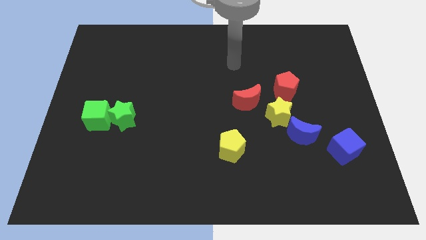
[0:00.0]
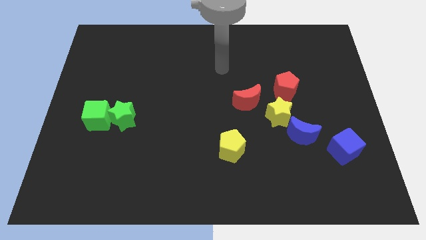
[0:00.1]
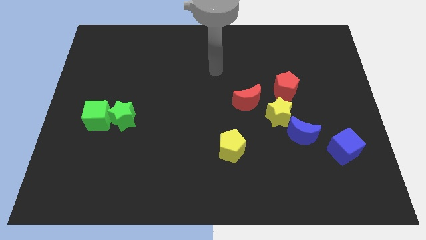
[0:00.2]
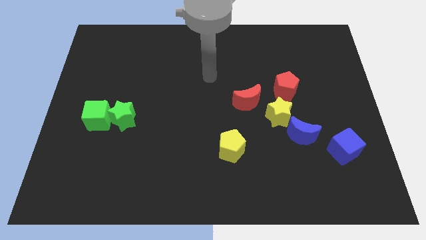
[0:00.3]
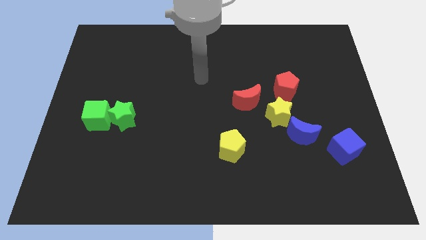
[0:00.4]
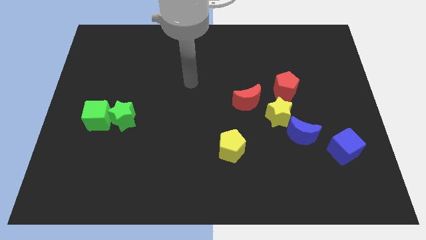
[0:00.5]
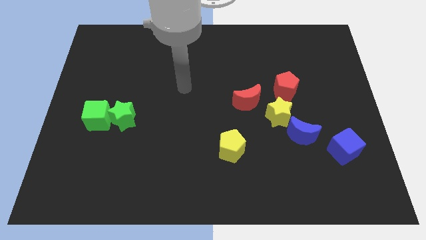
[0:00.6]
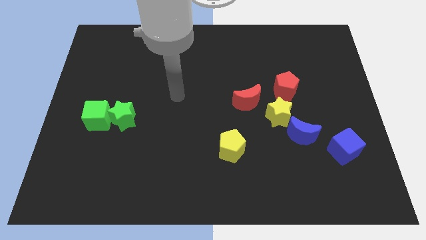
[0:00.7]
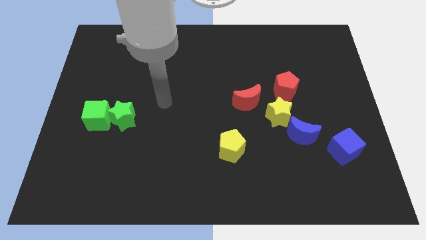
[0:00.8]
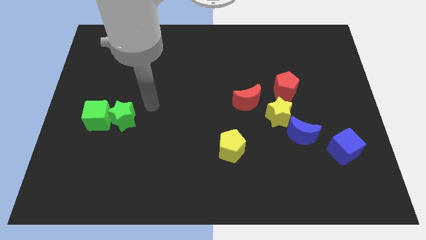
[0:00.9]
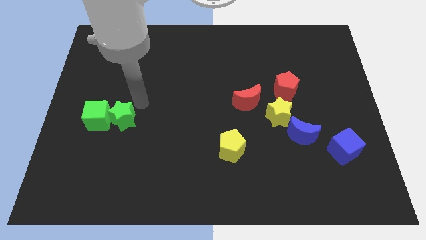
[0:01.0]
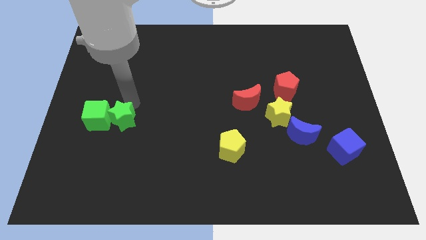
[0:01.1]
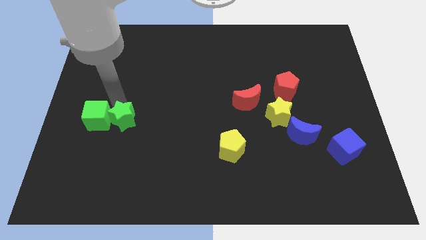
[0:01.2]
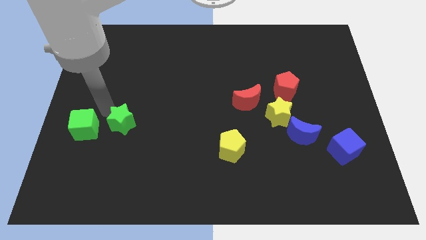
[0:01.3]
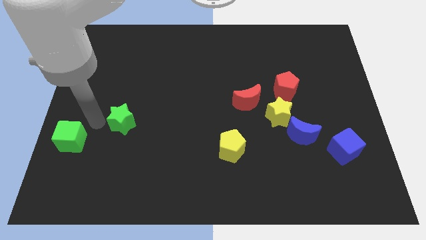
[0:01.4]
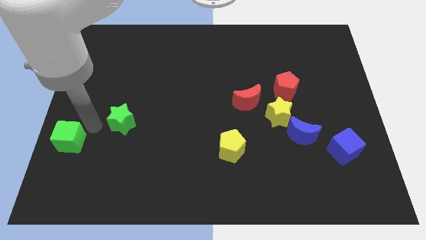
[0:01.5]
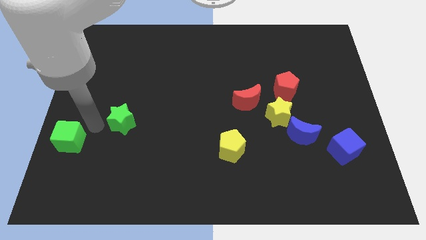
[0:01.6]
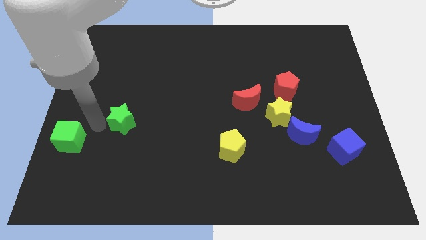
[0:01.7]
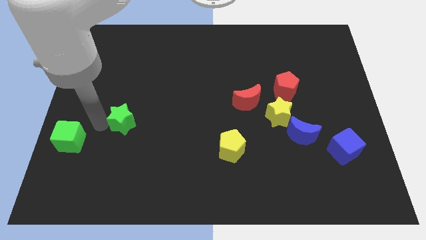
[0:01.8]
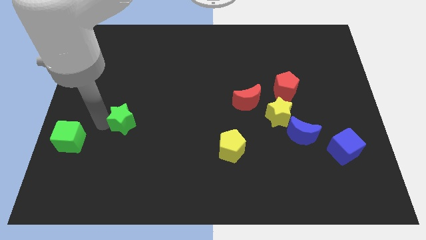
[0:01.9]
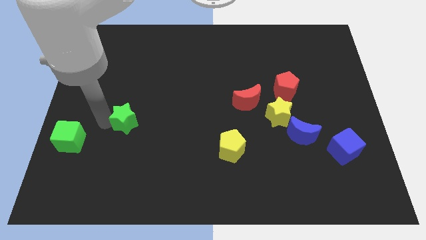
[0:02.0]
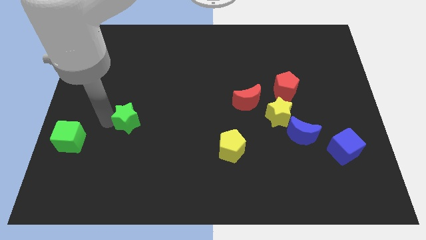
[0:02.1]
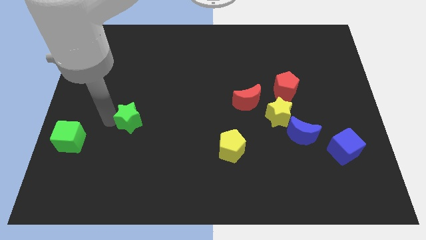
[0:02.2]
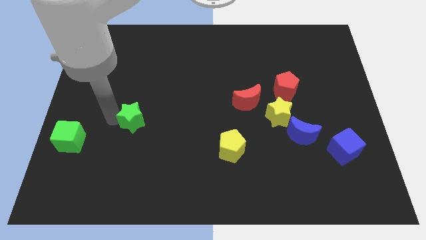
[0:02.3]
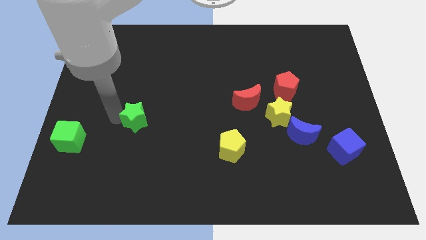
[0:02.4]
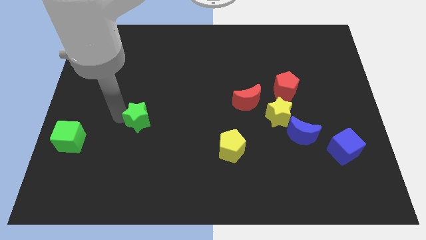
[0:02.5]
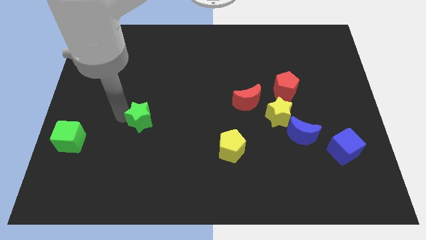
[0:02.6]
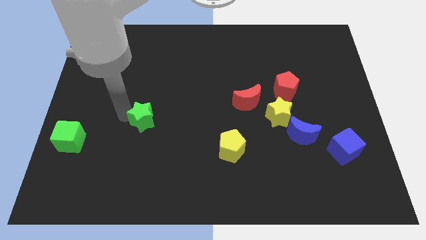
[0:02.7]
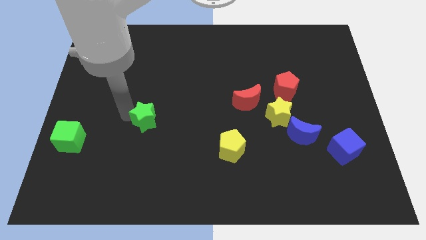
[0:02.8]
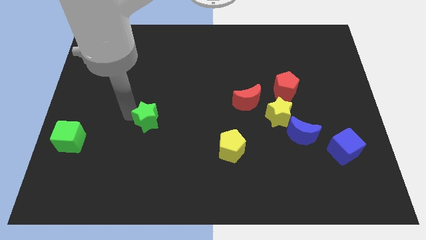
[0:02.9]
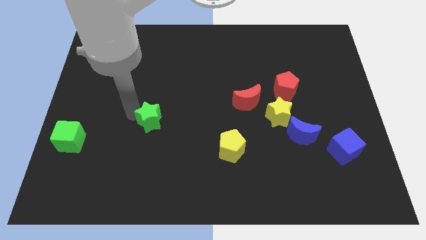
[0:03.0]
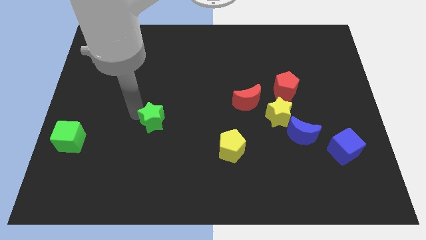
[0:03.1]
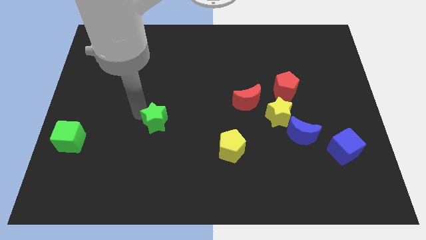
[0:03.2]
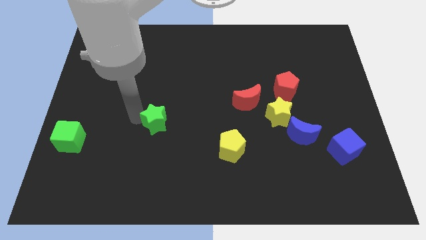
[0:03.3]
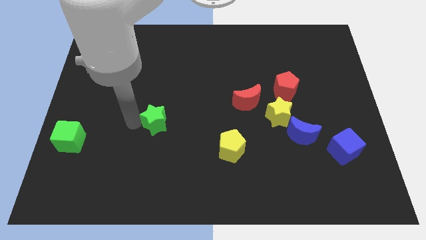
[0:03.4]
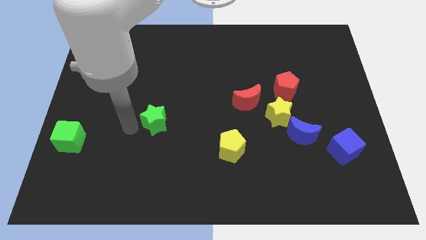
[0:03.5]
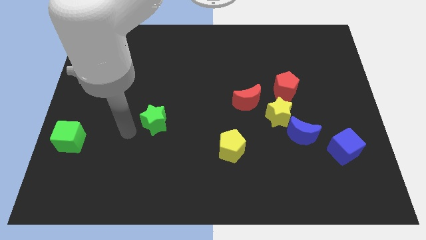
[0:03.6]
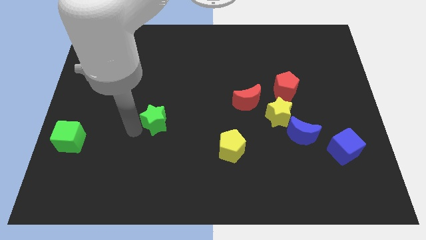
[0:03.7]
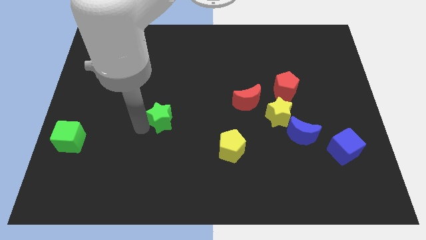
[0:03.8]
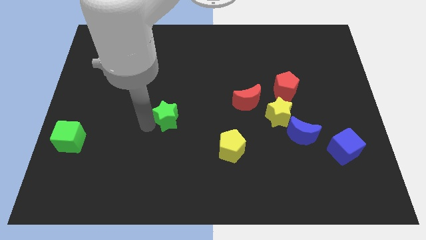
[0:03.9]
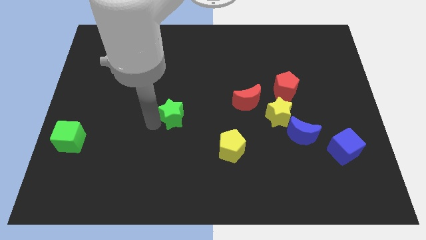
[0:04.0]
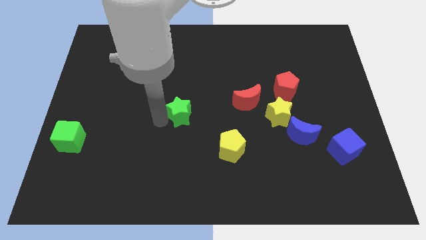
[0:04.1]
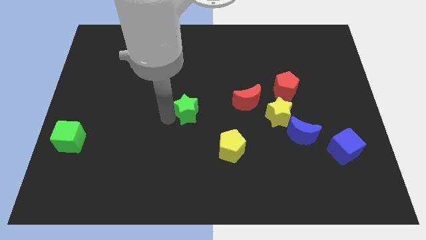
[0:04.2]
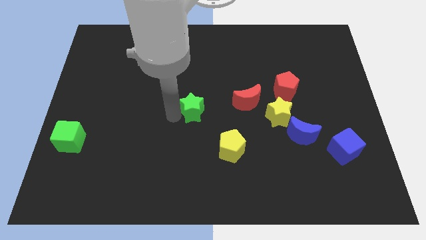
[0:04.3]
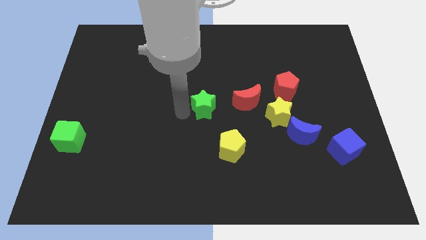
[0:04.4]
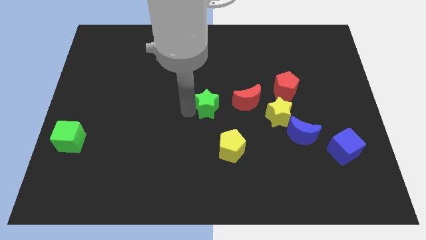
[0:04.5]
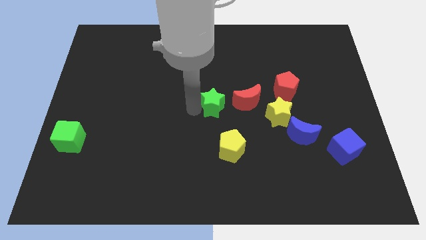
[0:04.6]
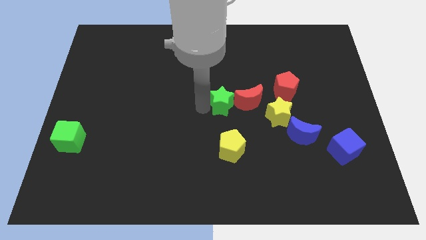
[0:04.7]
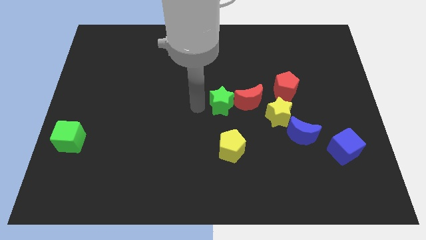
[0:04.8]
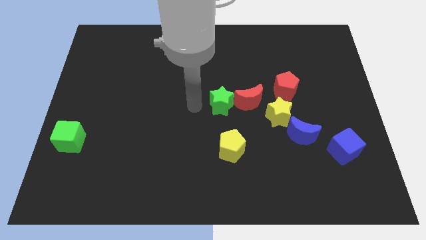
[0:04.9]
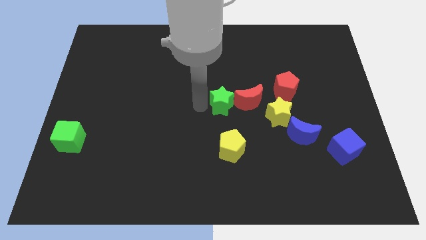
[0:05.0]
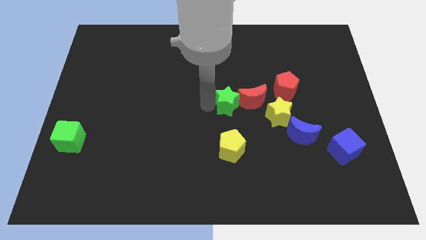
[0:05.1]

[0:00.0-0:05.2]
slide the green star towards the red moon

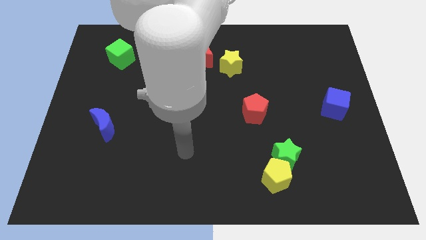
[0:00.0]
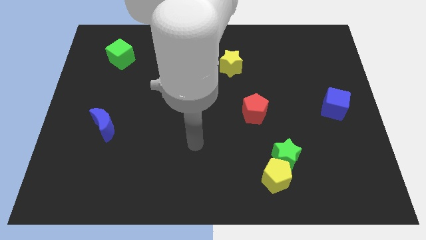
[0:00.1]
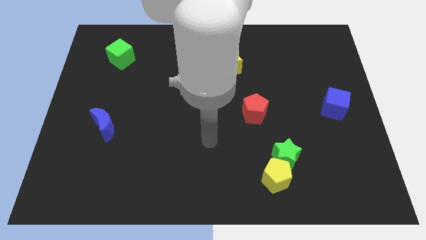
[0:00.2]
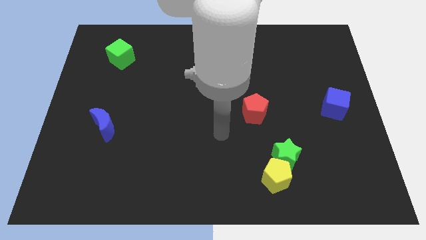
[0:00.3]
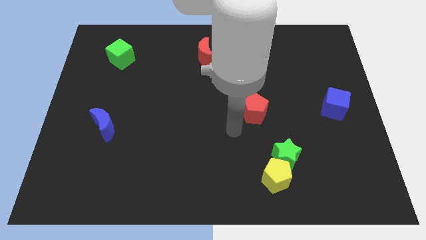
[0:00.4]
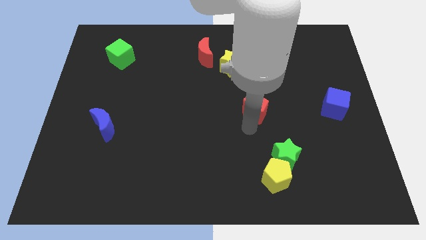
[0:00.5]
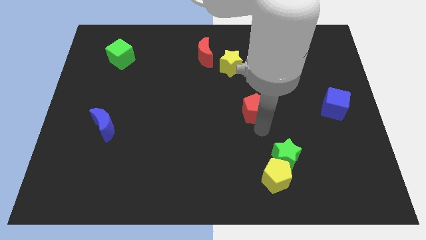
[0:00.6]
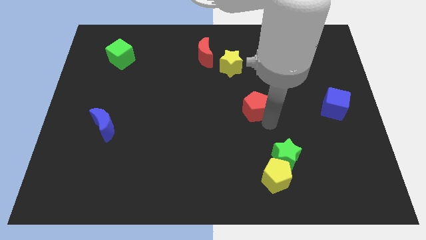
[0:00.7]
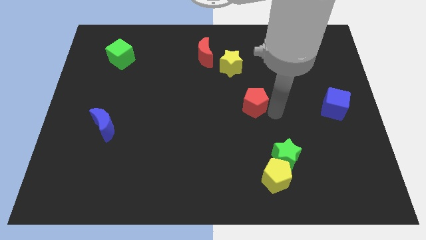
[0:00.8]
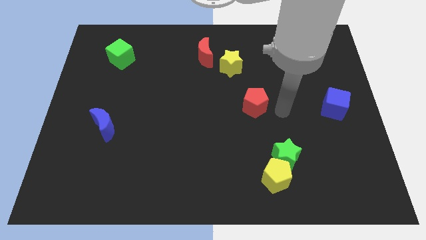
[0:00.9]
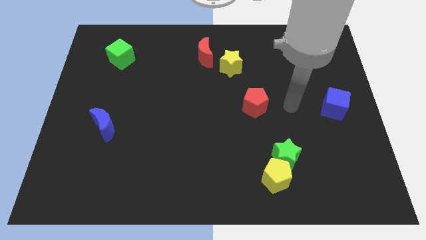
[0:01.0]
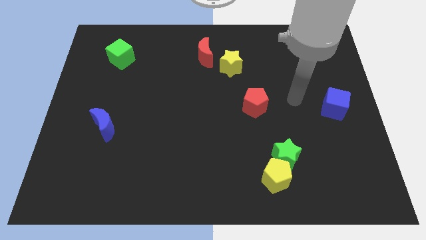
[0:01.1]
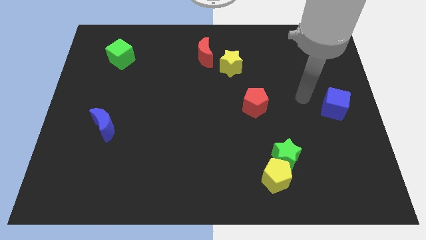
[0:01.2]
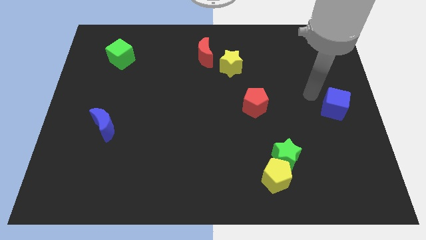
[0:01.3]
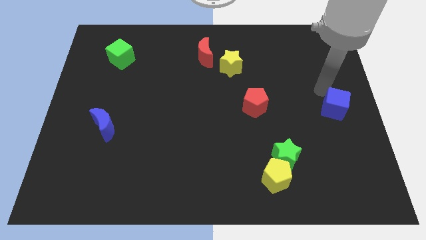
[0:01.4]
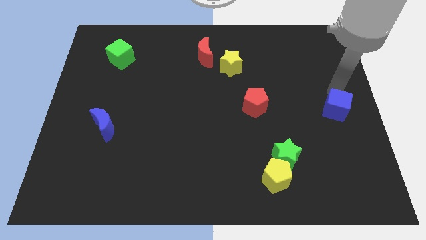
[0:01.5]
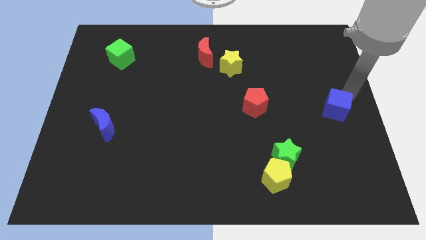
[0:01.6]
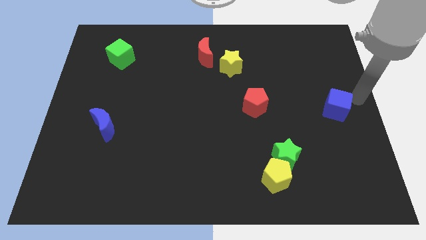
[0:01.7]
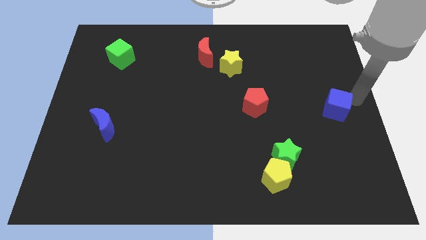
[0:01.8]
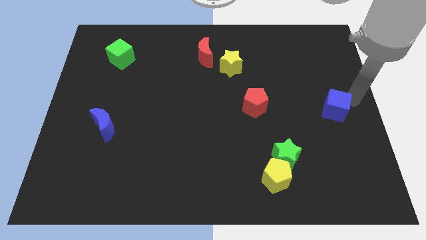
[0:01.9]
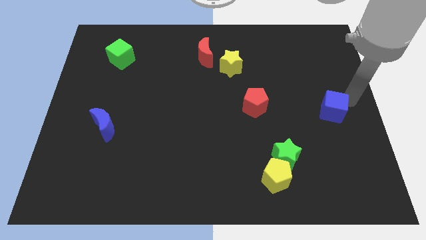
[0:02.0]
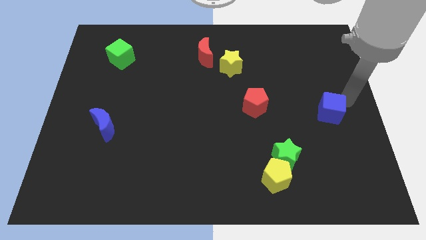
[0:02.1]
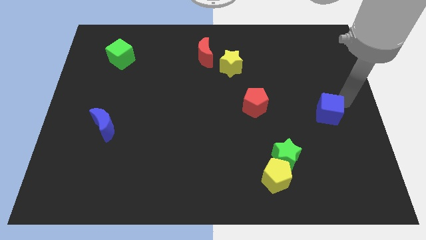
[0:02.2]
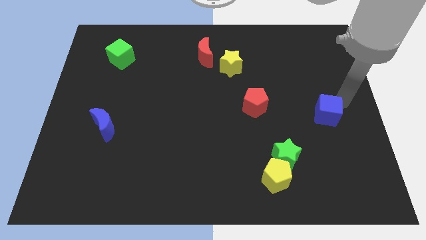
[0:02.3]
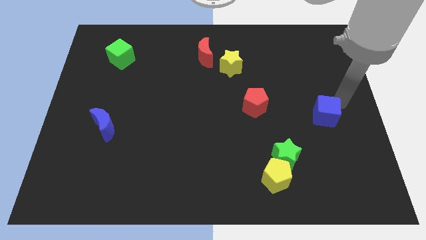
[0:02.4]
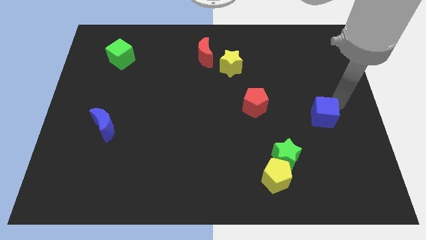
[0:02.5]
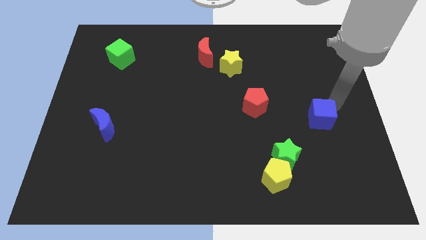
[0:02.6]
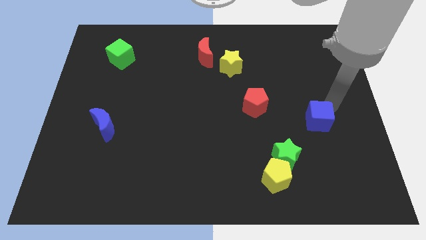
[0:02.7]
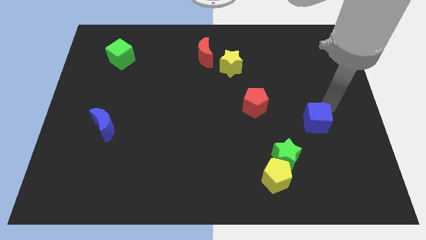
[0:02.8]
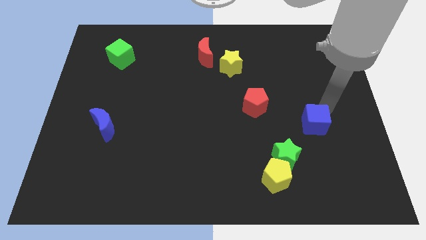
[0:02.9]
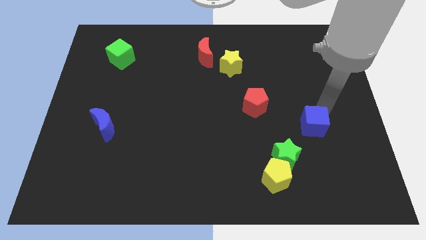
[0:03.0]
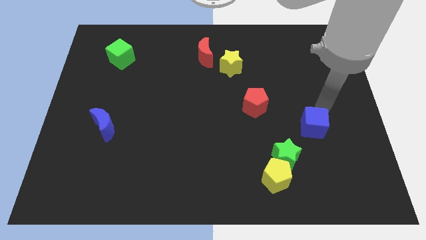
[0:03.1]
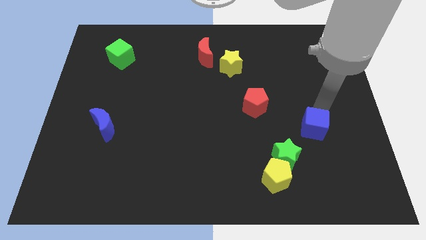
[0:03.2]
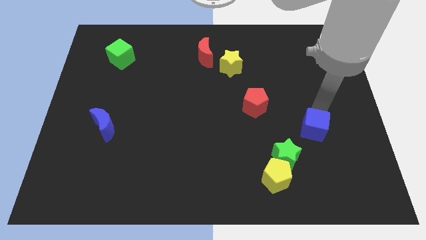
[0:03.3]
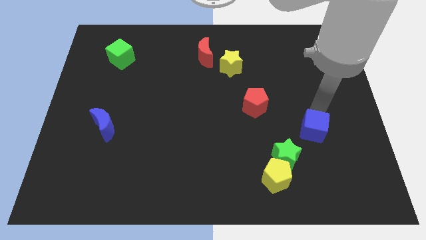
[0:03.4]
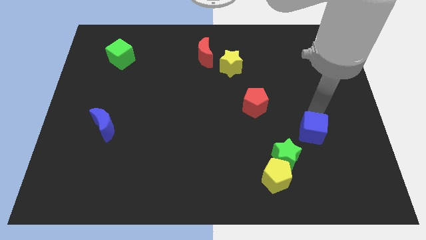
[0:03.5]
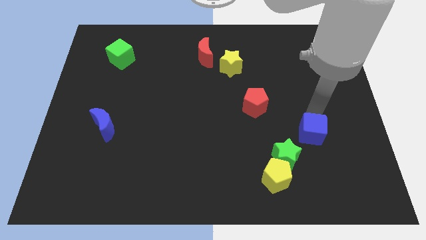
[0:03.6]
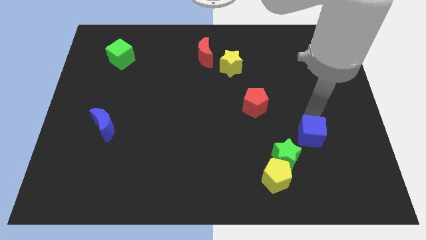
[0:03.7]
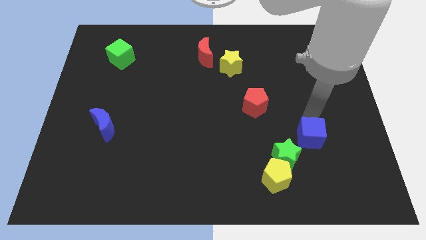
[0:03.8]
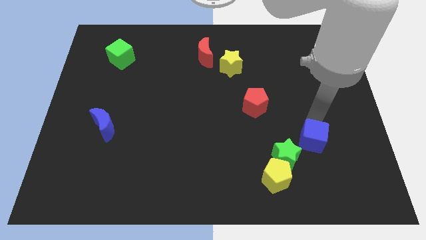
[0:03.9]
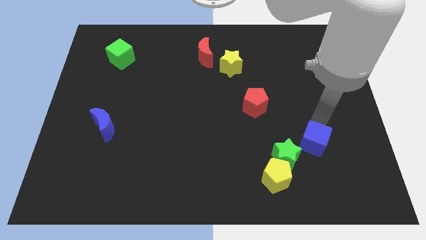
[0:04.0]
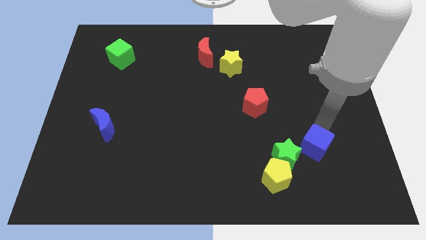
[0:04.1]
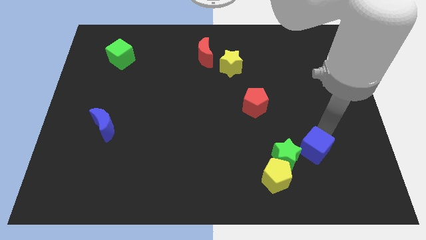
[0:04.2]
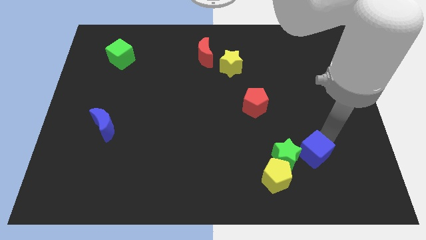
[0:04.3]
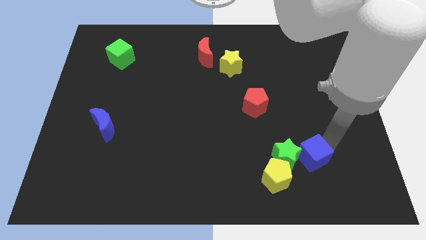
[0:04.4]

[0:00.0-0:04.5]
push the blue cube next to the green star
